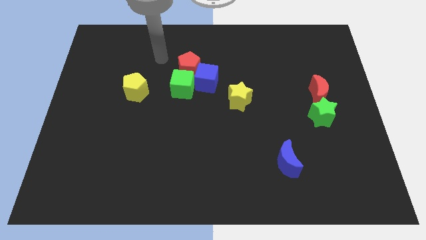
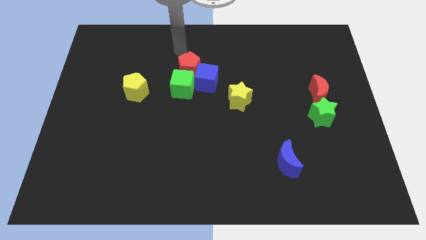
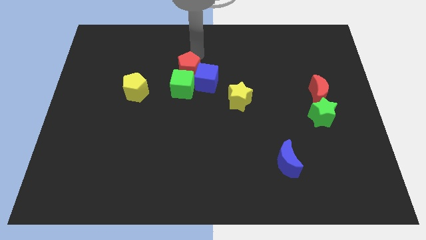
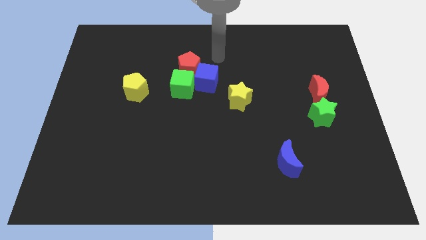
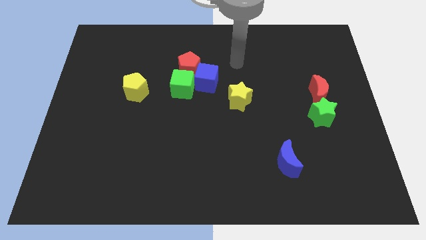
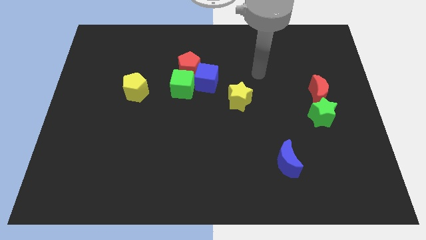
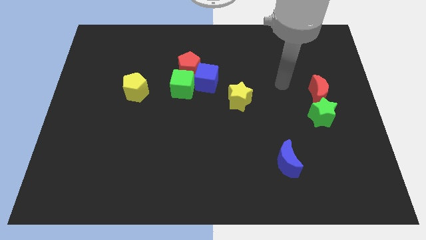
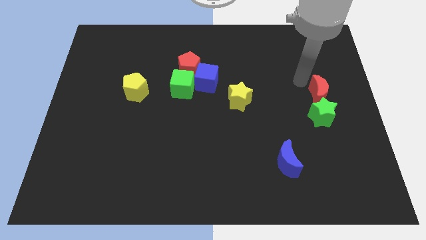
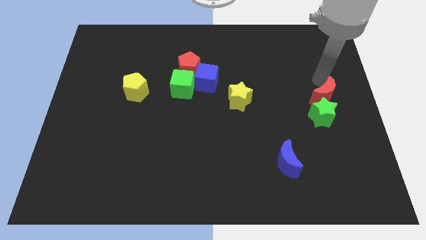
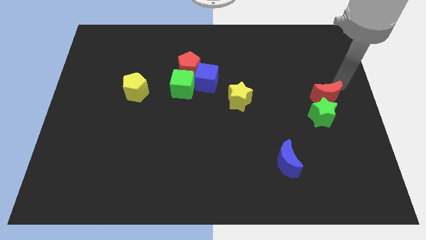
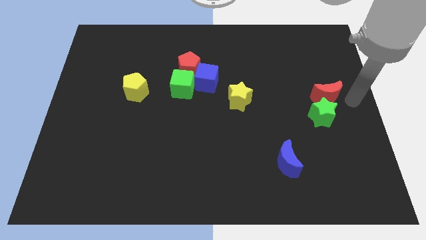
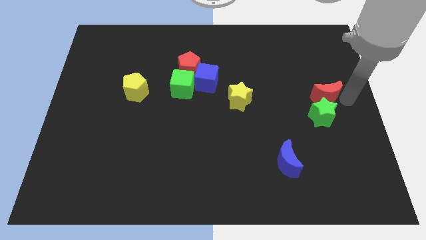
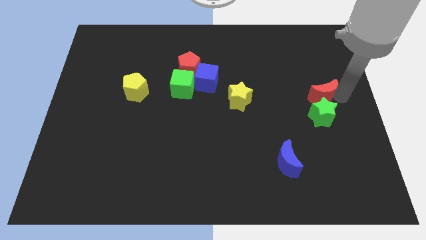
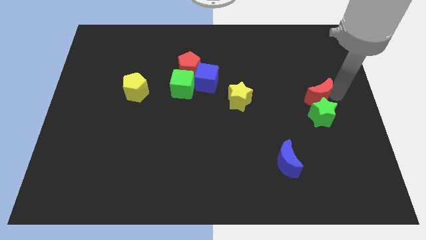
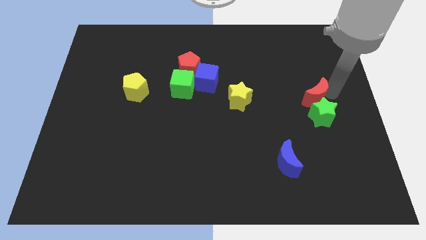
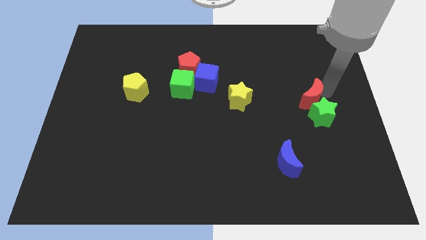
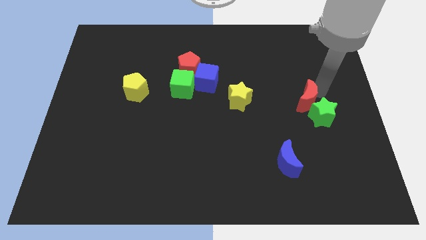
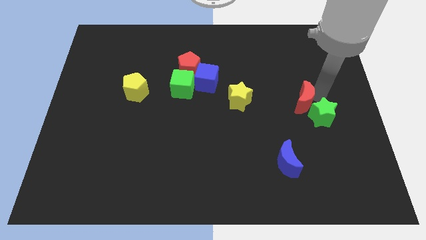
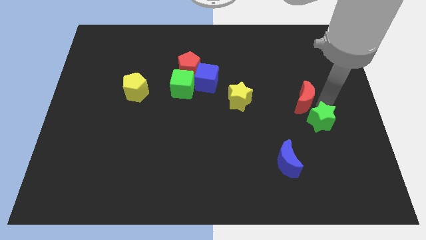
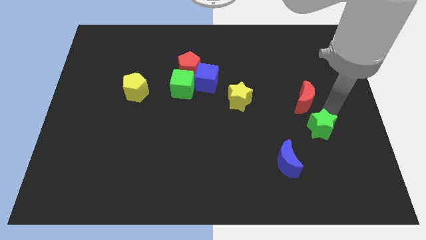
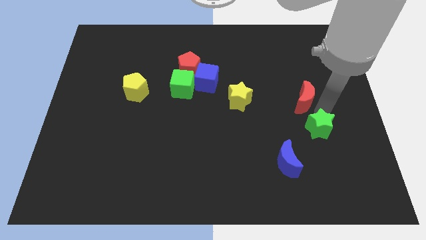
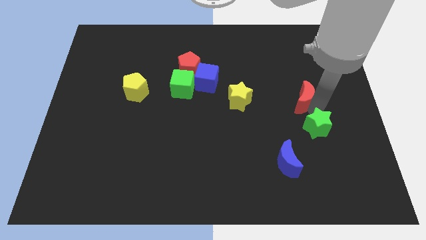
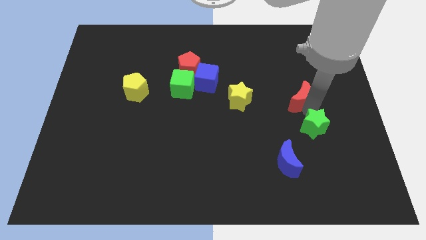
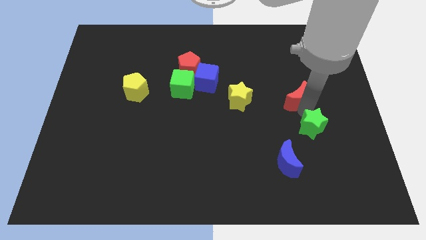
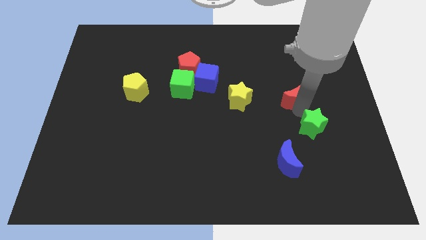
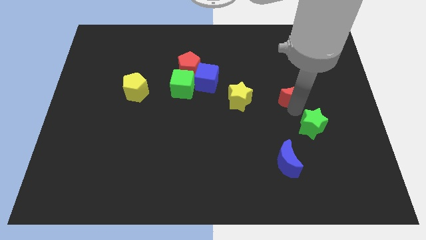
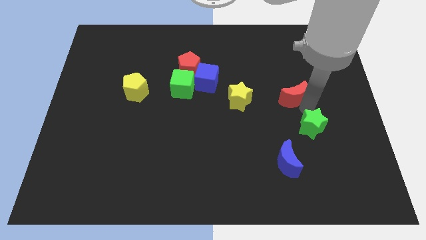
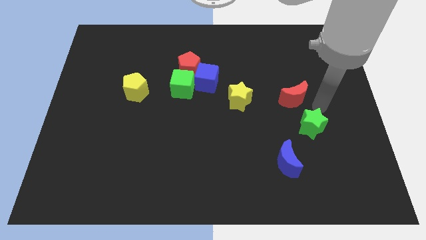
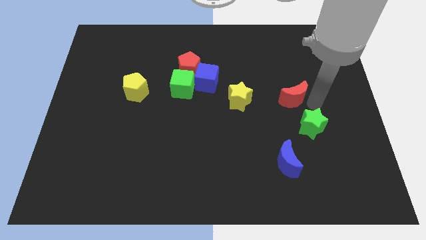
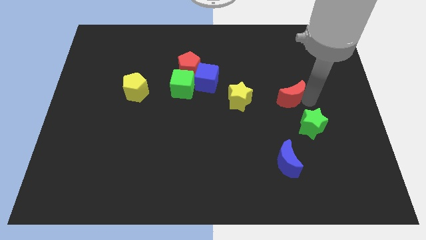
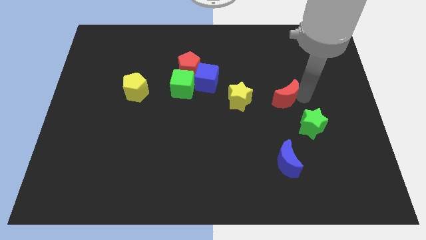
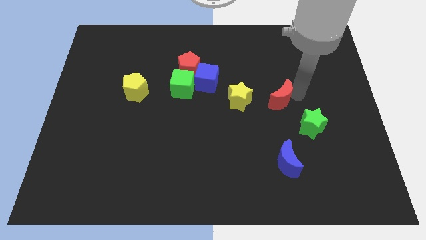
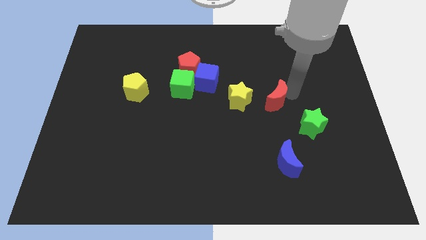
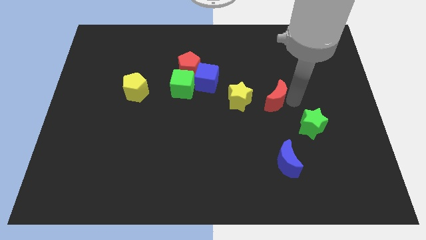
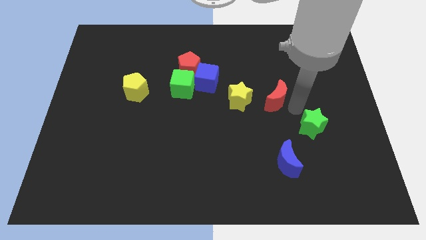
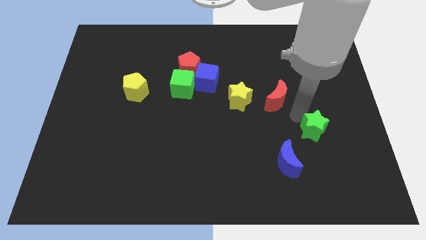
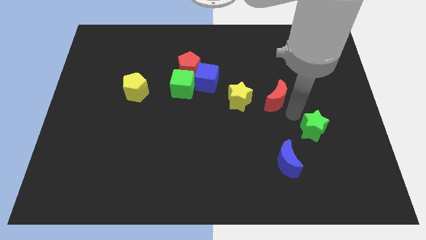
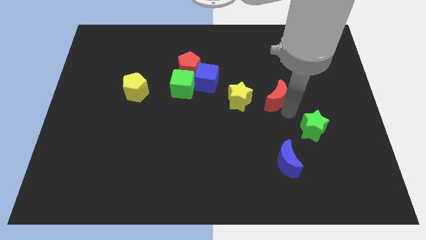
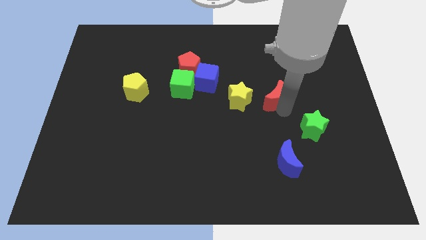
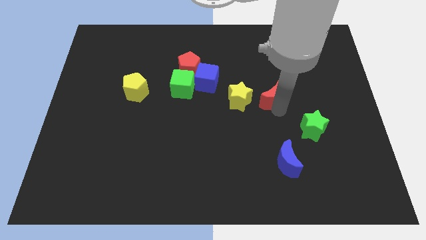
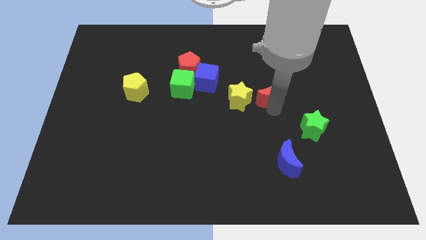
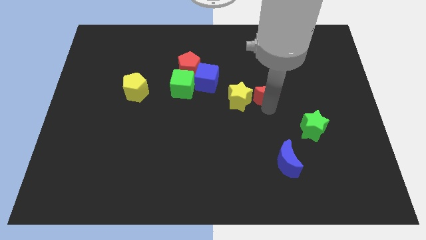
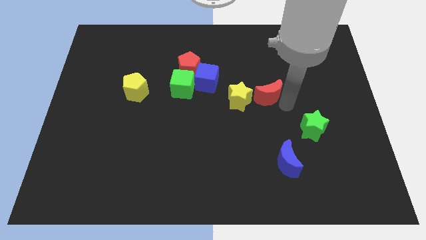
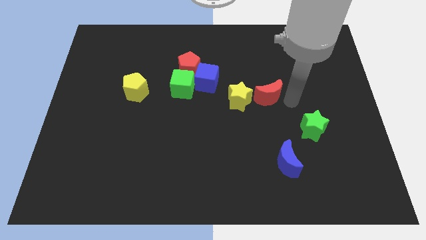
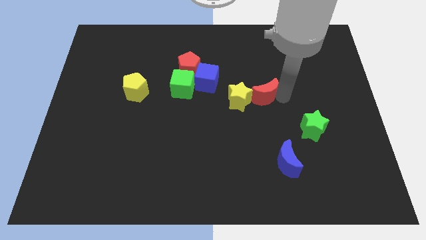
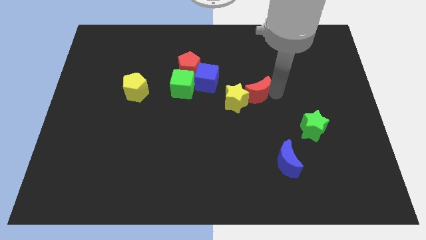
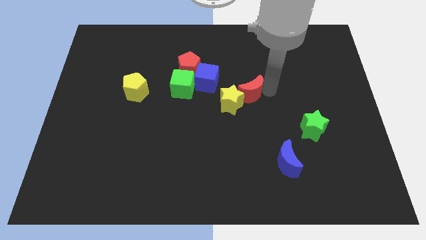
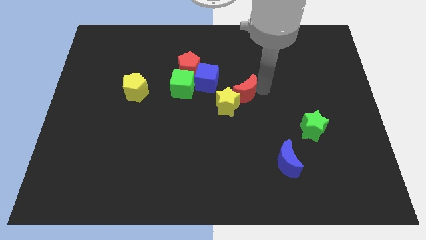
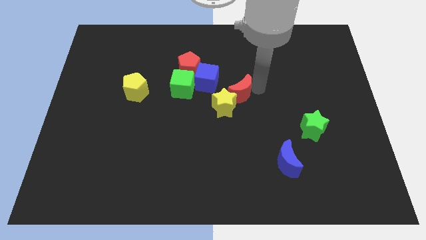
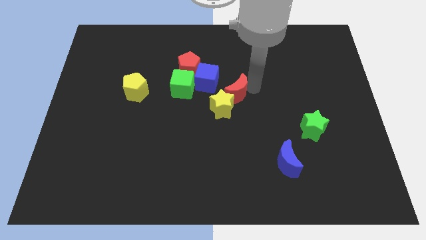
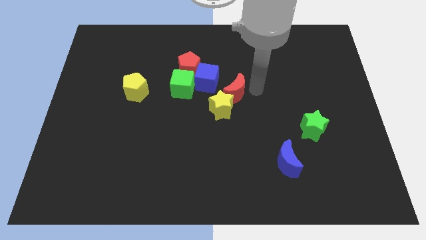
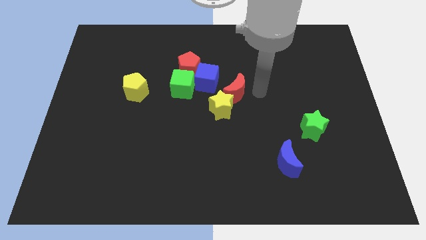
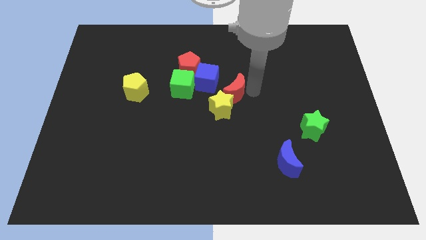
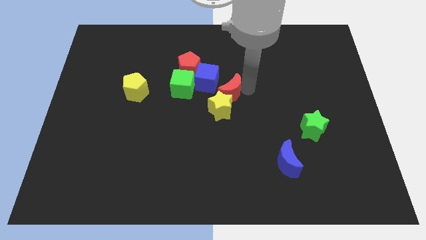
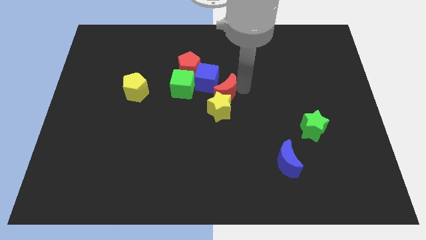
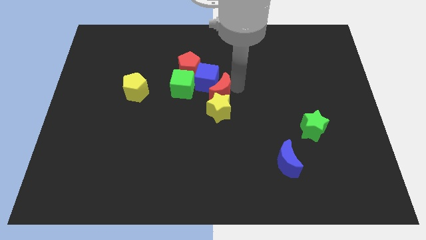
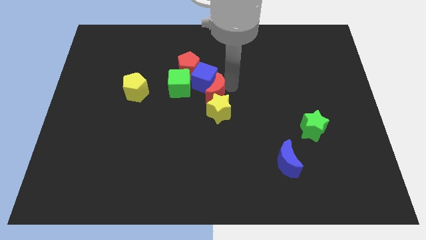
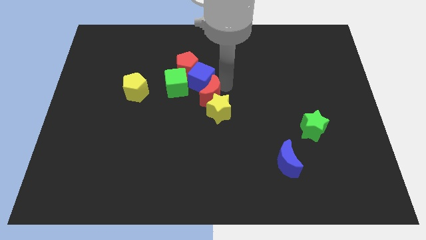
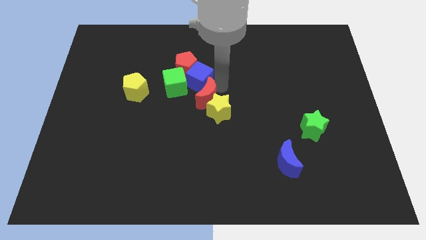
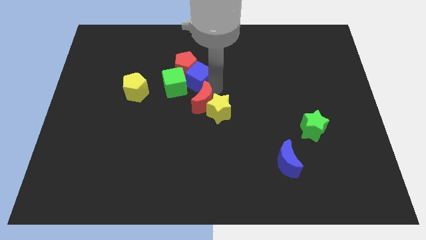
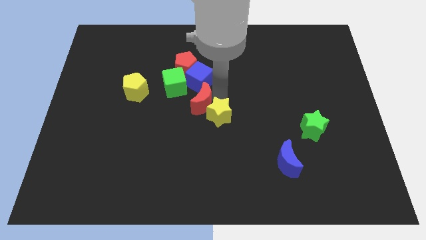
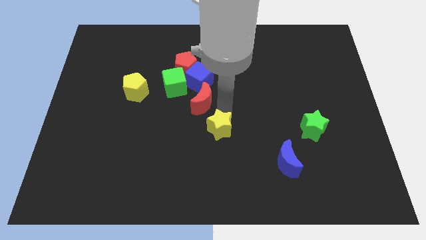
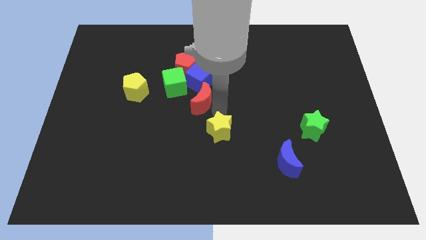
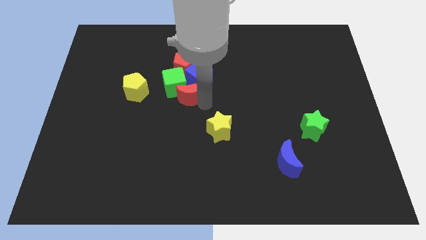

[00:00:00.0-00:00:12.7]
move the red moon next to the green cube

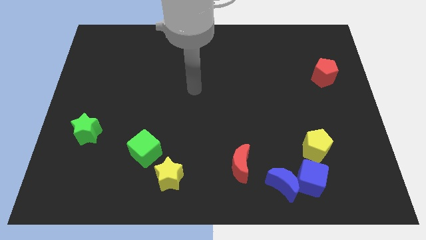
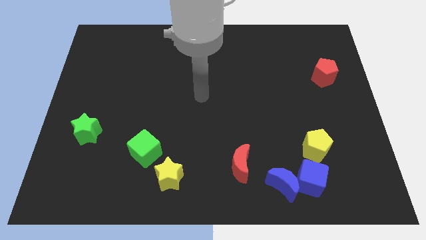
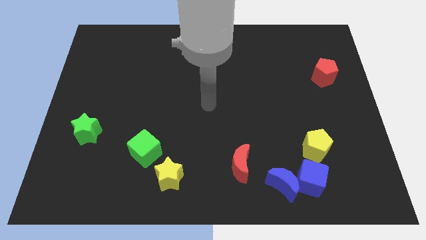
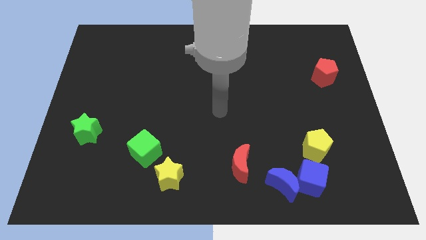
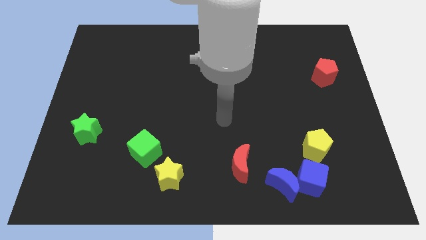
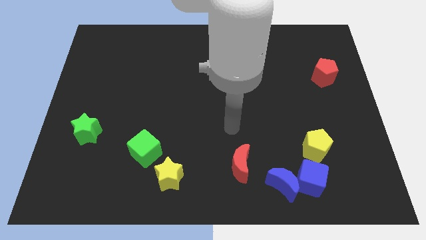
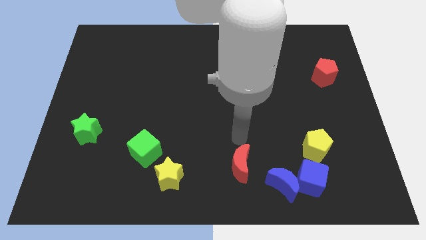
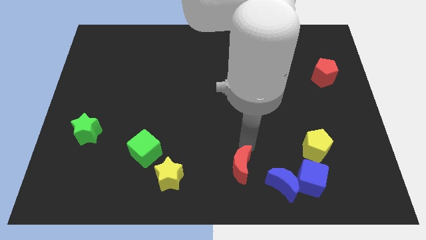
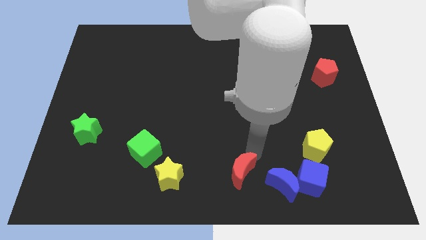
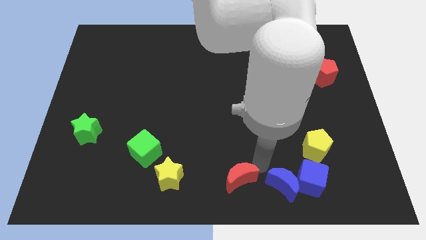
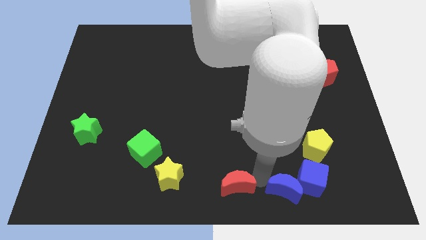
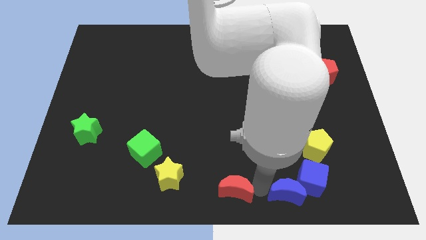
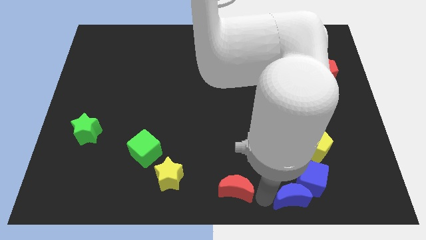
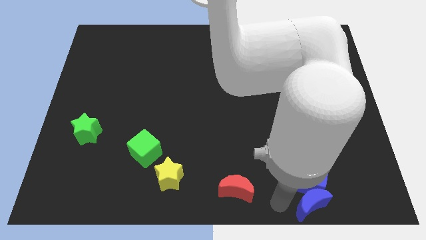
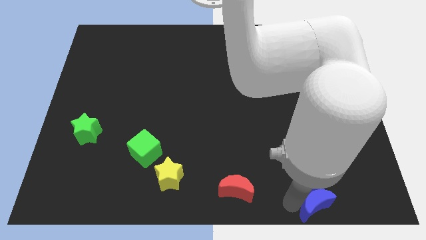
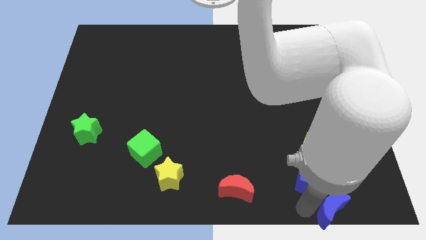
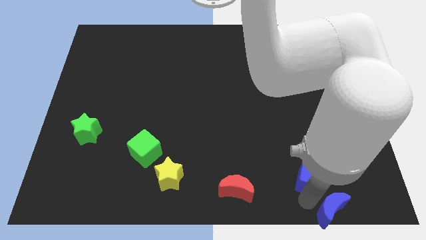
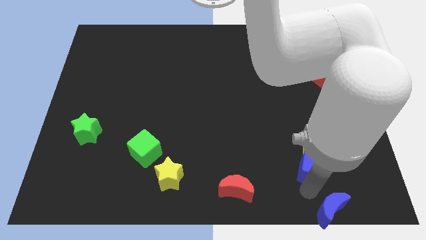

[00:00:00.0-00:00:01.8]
slide the blue cube to the yellow pentagon

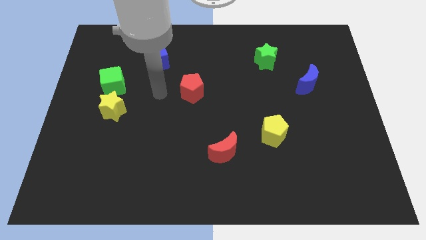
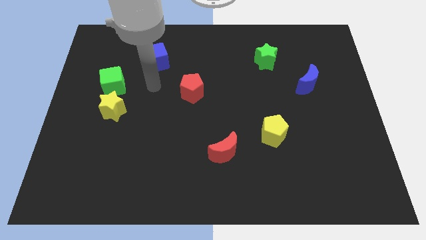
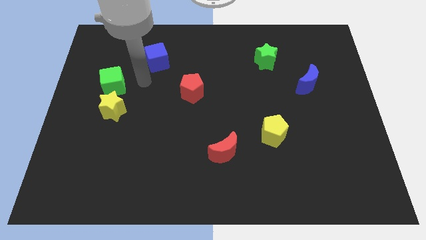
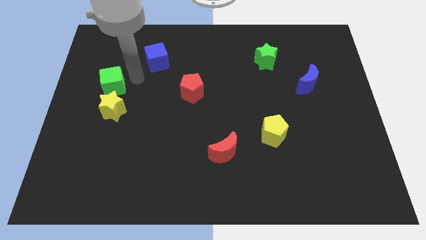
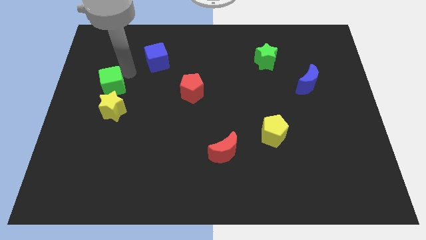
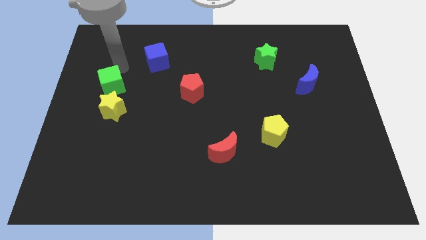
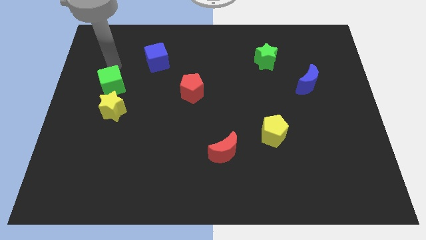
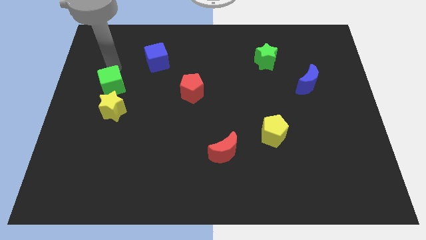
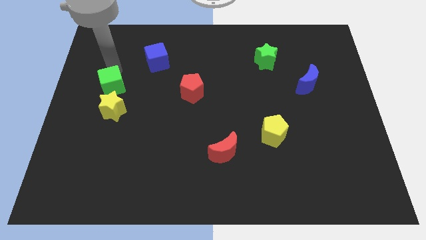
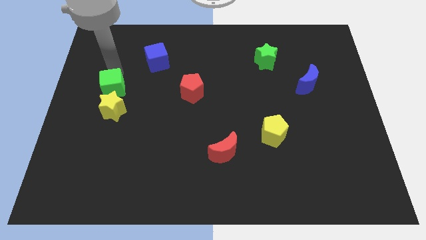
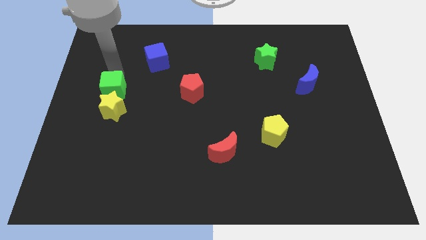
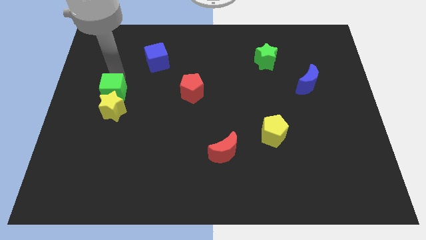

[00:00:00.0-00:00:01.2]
push the green cube close to the yellow star
